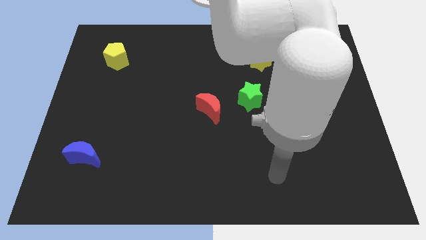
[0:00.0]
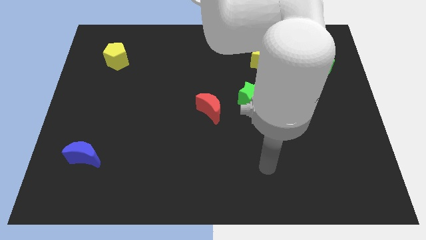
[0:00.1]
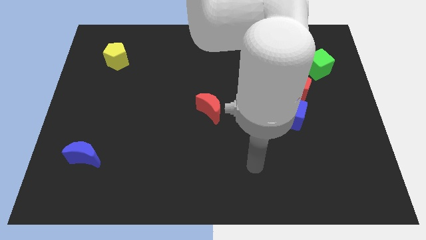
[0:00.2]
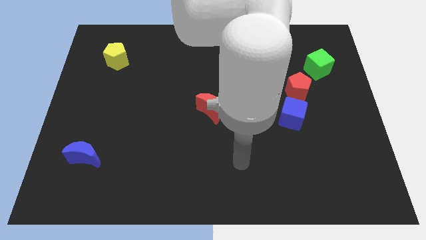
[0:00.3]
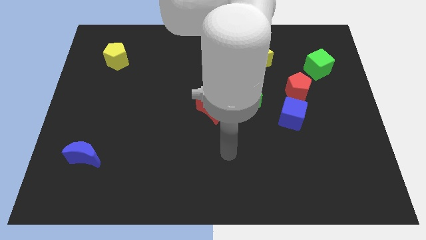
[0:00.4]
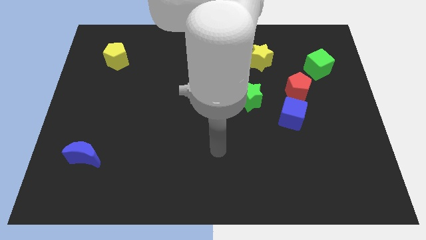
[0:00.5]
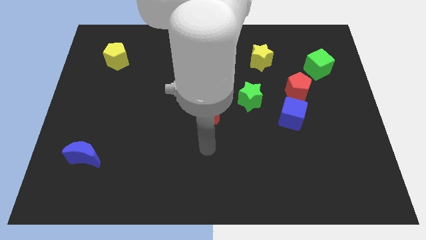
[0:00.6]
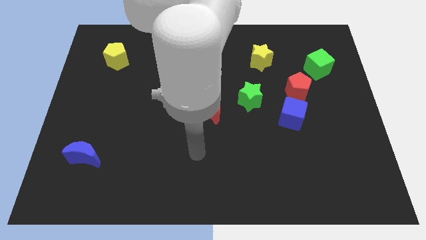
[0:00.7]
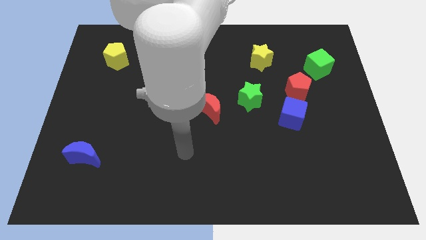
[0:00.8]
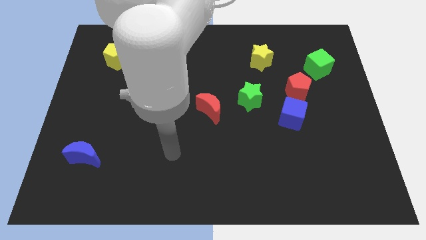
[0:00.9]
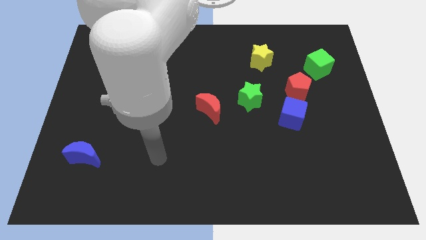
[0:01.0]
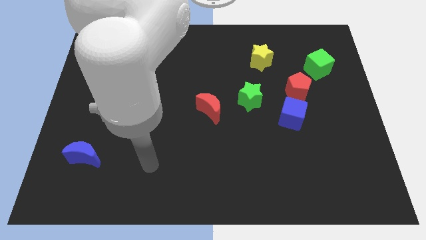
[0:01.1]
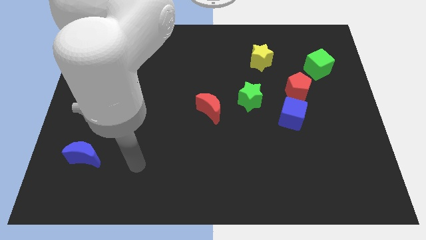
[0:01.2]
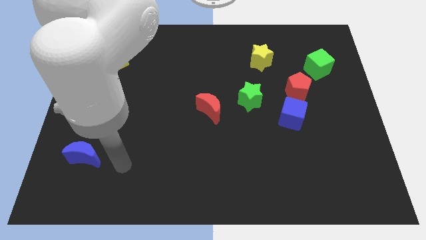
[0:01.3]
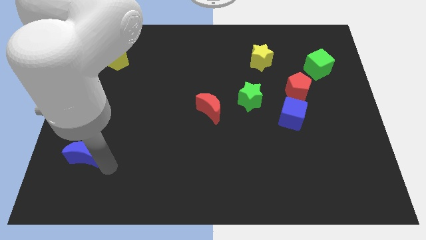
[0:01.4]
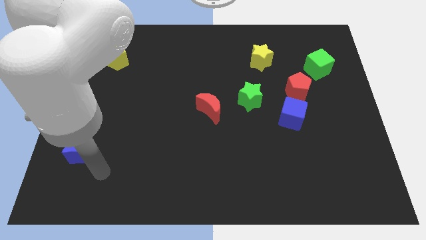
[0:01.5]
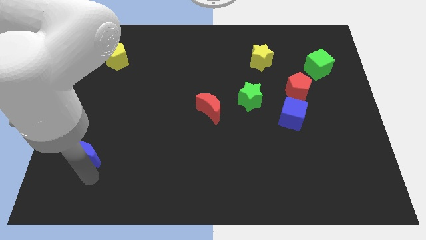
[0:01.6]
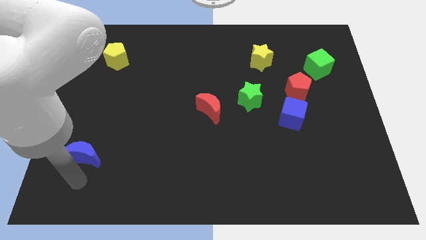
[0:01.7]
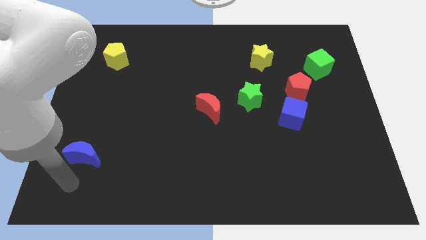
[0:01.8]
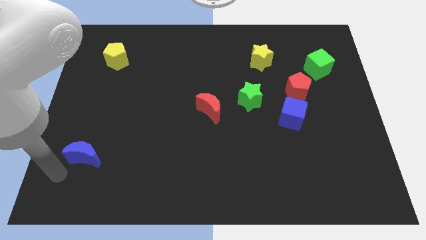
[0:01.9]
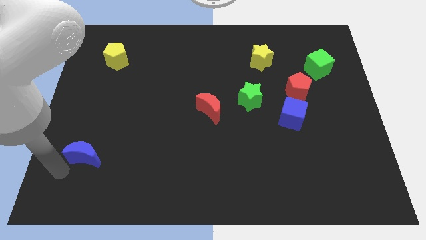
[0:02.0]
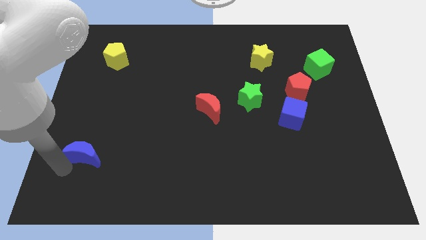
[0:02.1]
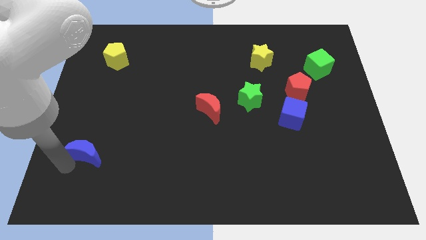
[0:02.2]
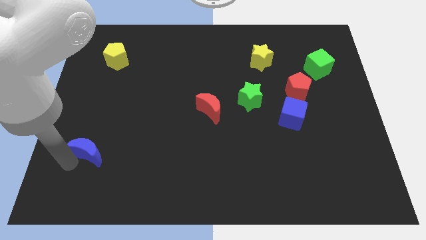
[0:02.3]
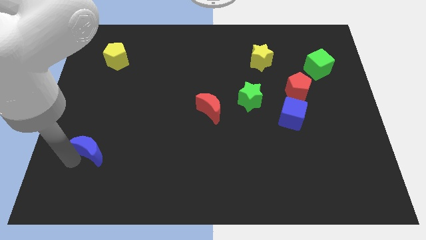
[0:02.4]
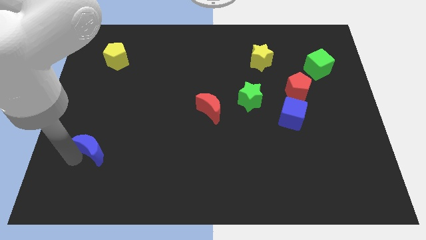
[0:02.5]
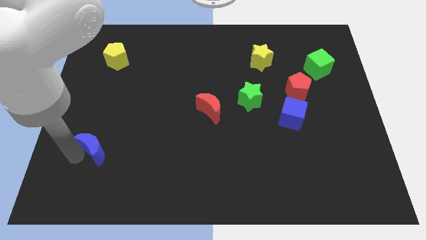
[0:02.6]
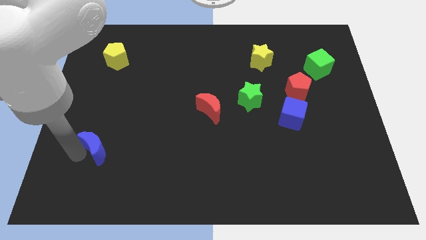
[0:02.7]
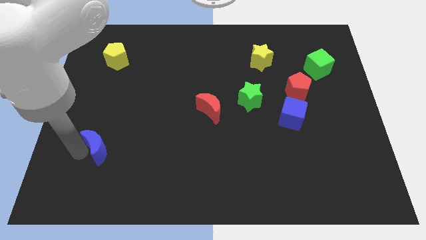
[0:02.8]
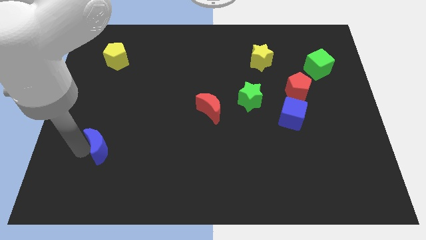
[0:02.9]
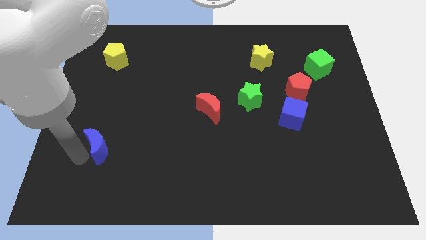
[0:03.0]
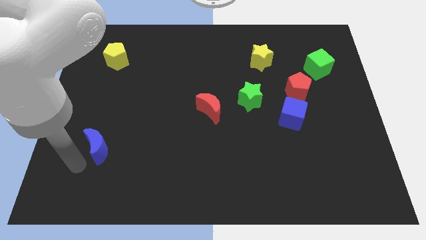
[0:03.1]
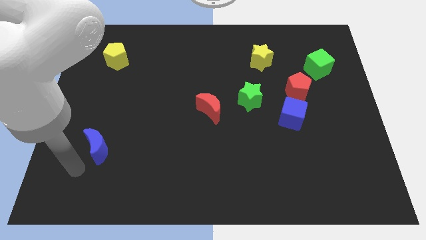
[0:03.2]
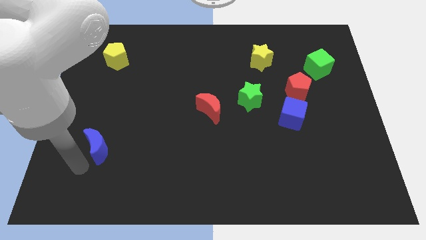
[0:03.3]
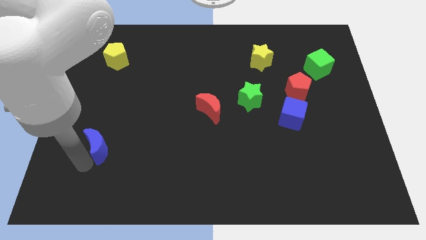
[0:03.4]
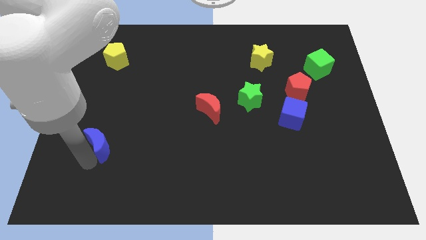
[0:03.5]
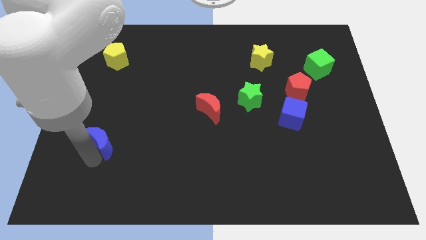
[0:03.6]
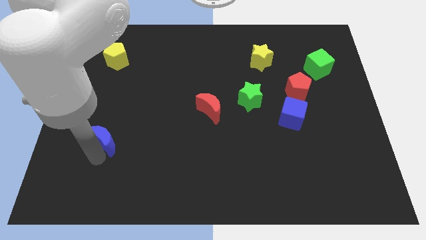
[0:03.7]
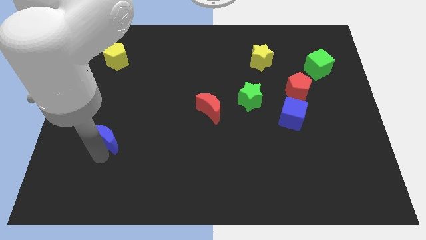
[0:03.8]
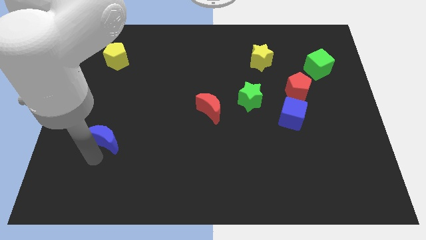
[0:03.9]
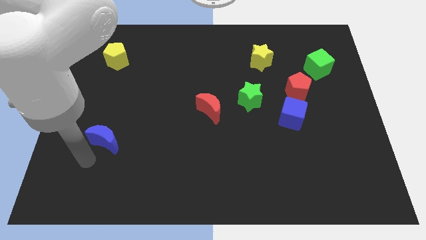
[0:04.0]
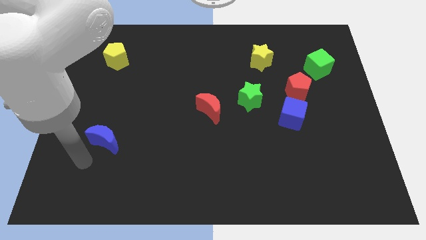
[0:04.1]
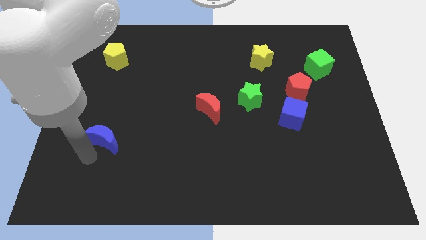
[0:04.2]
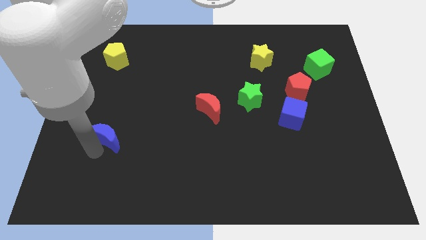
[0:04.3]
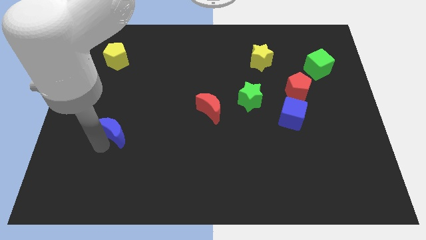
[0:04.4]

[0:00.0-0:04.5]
slightly move the blue moon upwards and right diagonally

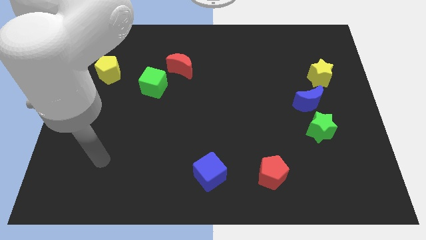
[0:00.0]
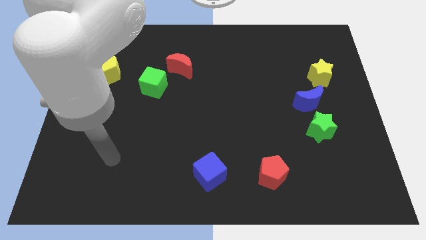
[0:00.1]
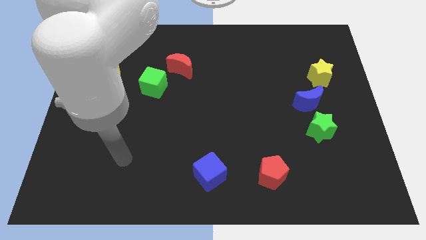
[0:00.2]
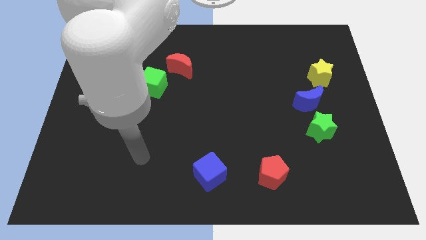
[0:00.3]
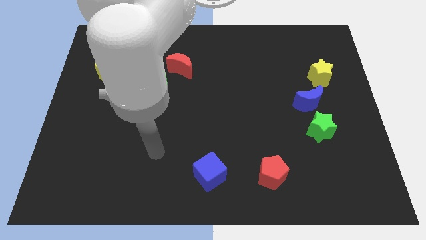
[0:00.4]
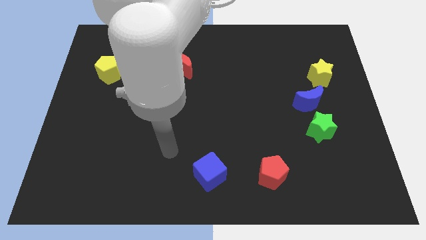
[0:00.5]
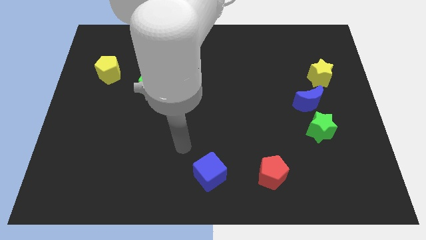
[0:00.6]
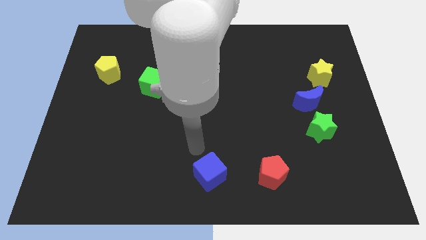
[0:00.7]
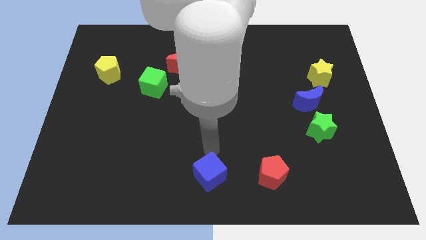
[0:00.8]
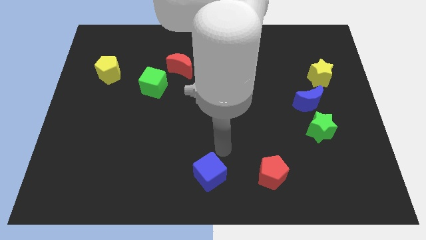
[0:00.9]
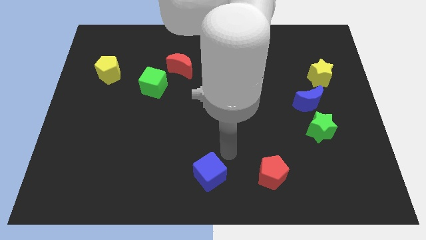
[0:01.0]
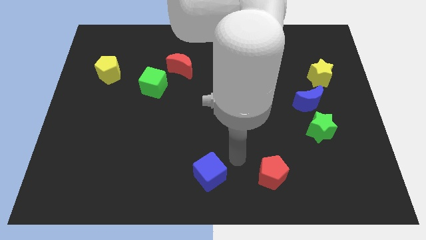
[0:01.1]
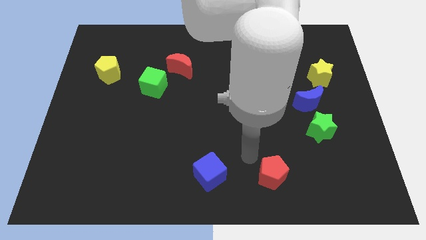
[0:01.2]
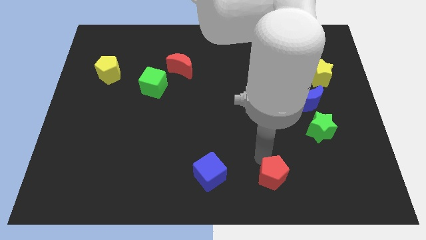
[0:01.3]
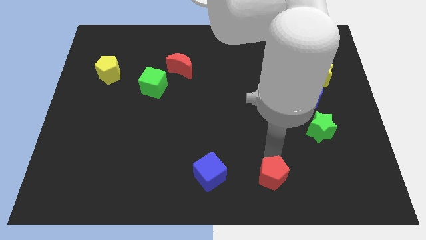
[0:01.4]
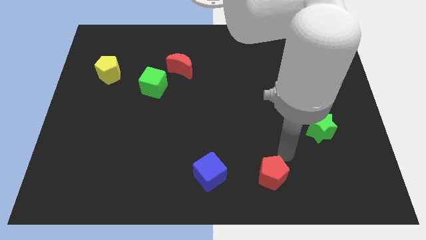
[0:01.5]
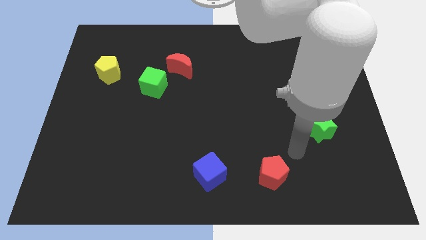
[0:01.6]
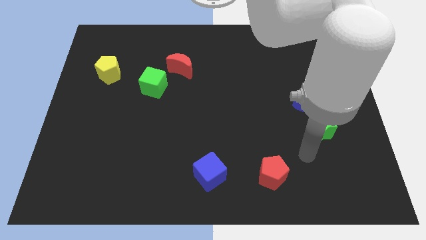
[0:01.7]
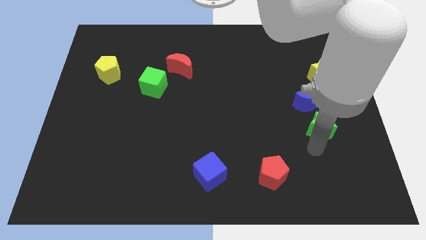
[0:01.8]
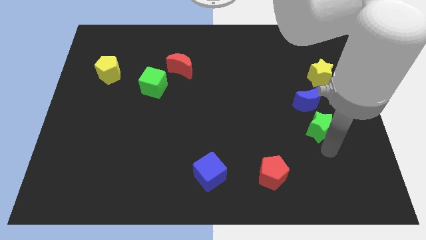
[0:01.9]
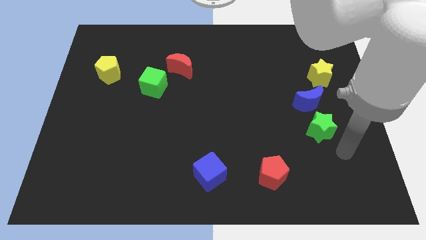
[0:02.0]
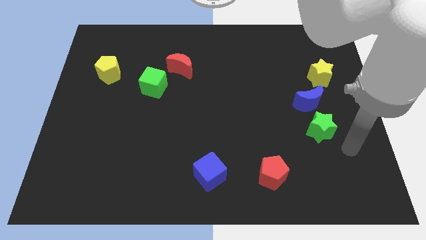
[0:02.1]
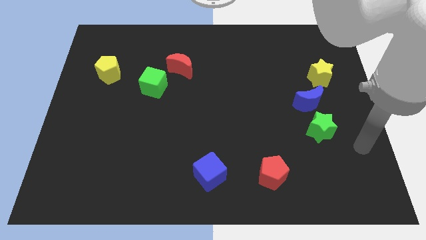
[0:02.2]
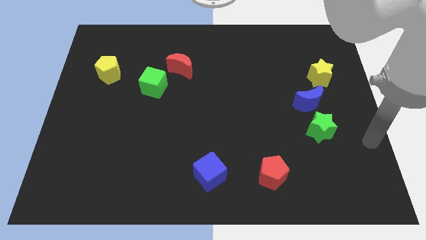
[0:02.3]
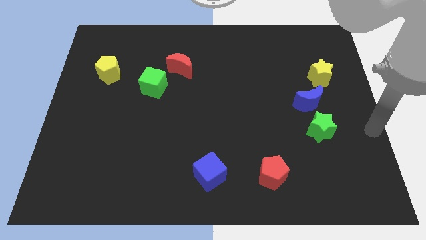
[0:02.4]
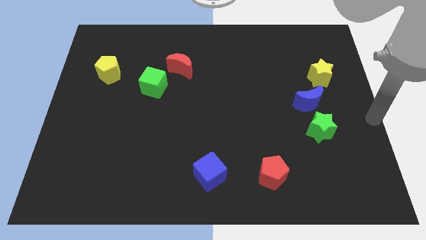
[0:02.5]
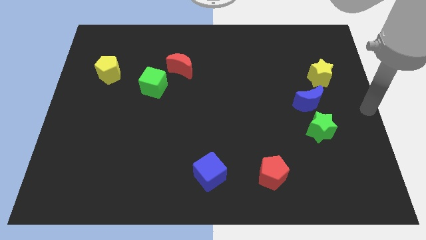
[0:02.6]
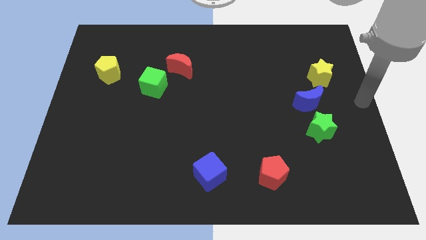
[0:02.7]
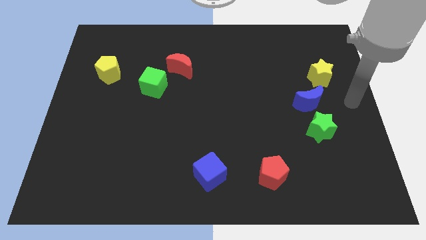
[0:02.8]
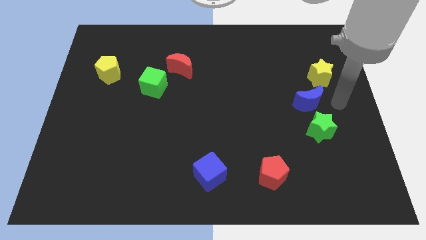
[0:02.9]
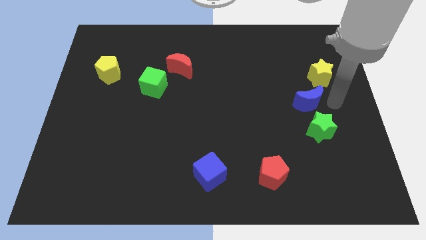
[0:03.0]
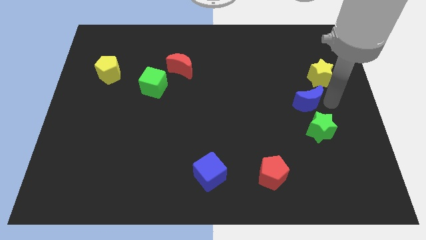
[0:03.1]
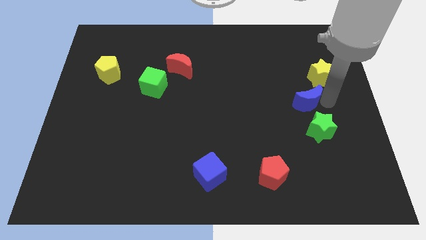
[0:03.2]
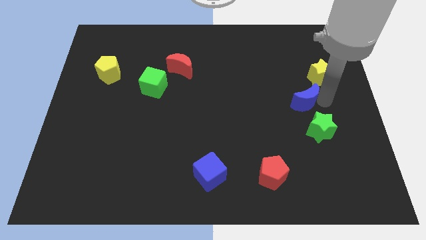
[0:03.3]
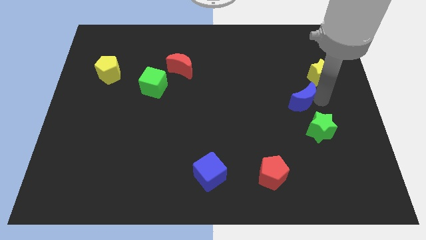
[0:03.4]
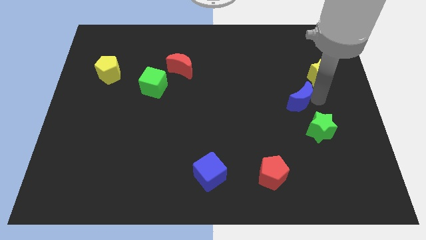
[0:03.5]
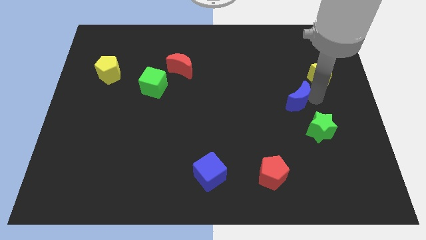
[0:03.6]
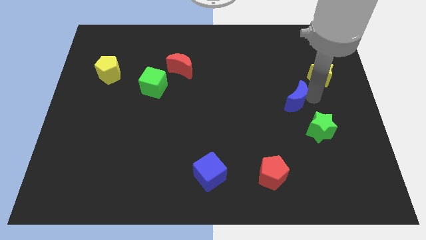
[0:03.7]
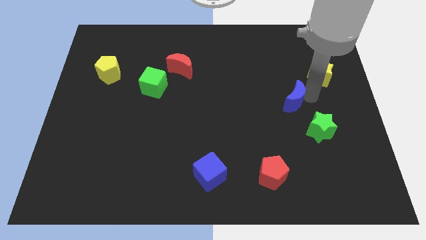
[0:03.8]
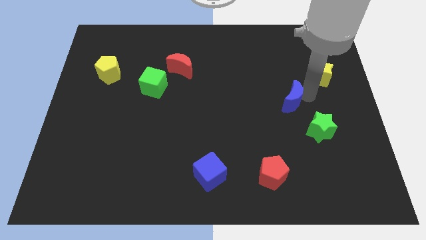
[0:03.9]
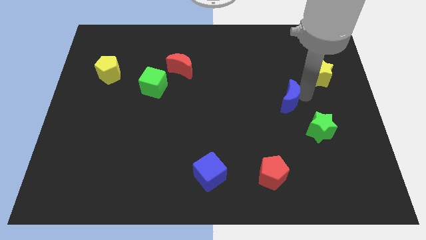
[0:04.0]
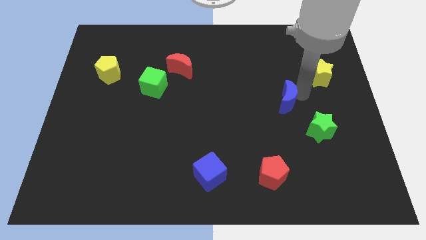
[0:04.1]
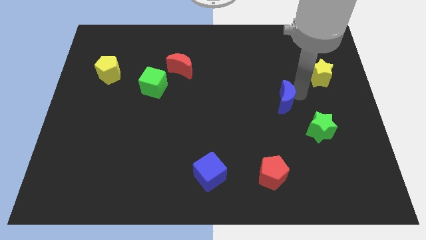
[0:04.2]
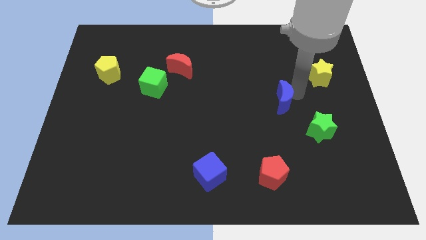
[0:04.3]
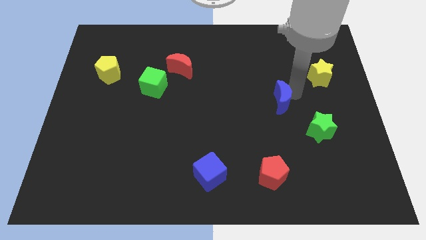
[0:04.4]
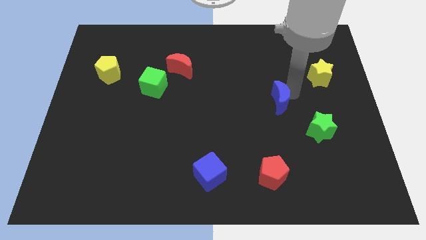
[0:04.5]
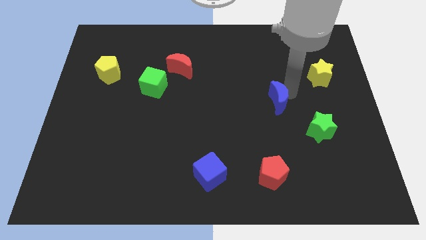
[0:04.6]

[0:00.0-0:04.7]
move the blue moon a little to the left
